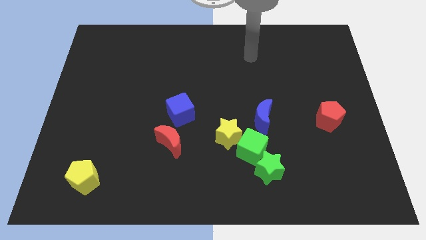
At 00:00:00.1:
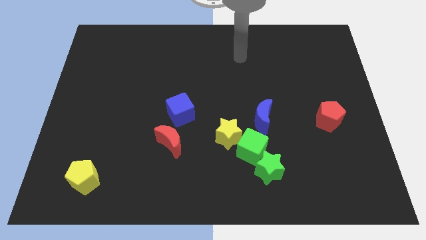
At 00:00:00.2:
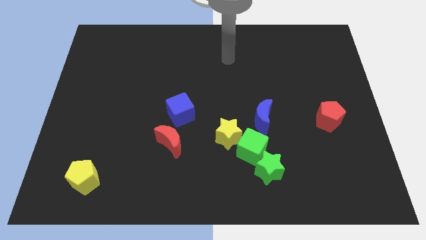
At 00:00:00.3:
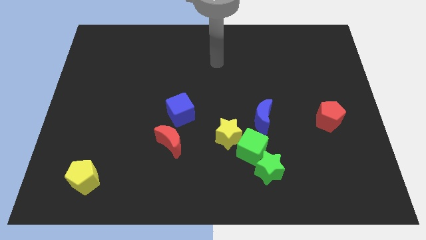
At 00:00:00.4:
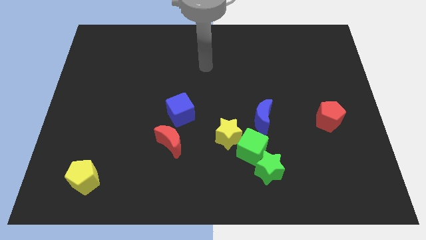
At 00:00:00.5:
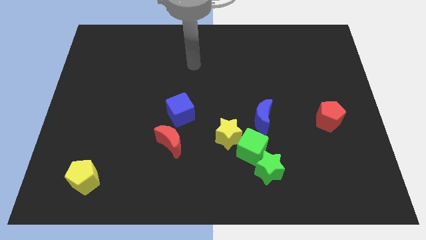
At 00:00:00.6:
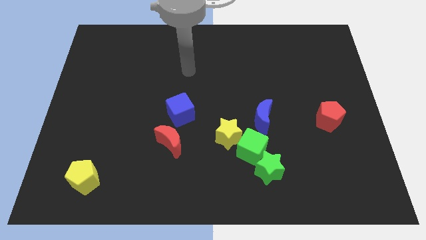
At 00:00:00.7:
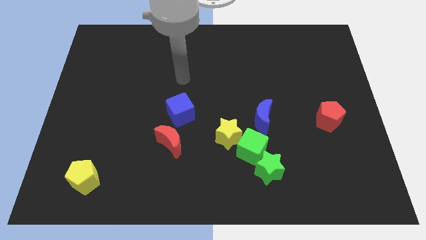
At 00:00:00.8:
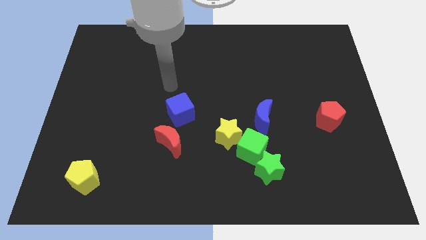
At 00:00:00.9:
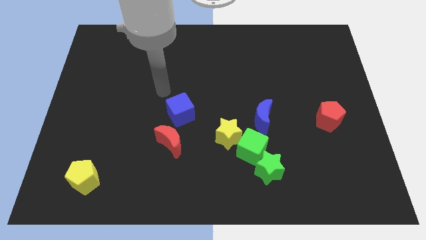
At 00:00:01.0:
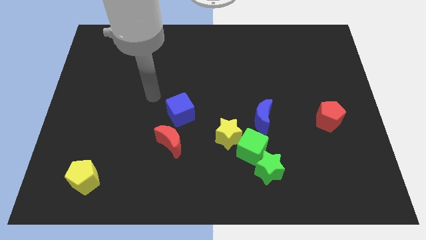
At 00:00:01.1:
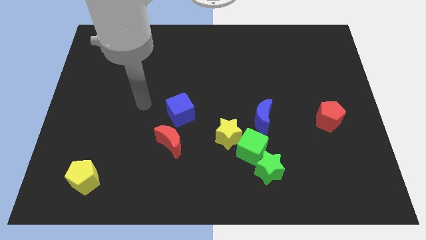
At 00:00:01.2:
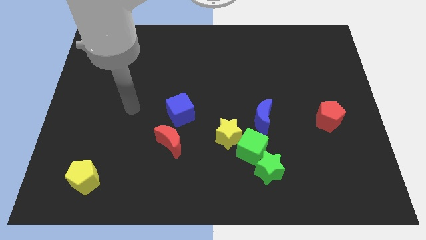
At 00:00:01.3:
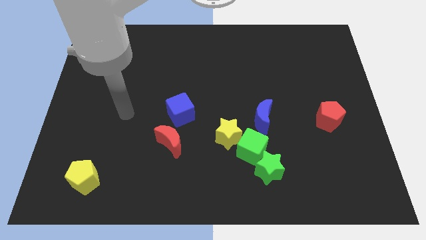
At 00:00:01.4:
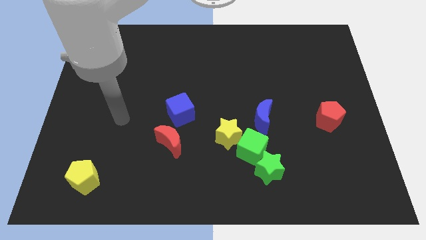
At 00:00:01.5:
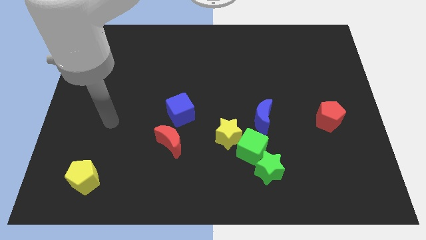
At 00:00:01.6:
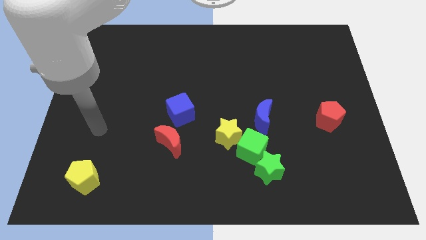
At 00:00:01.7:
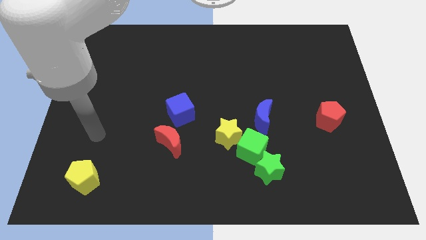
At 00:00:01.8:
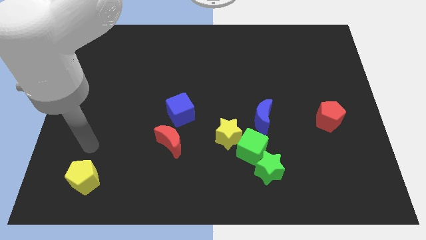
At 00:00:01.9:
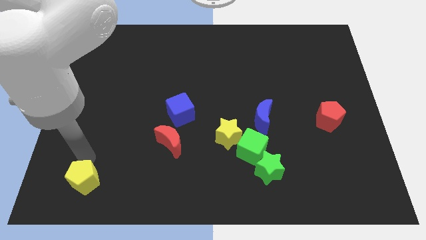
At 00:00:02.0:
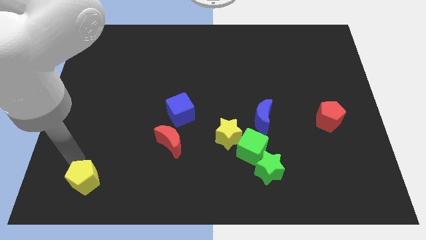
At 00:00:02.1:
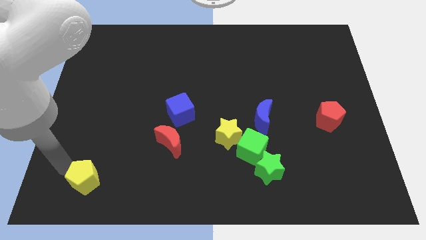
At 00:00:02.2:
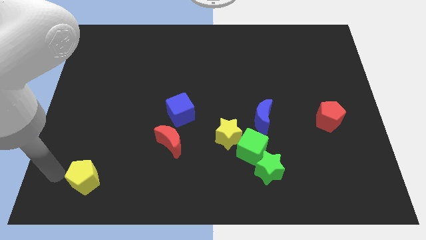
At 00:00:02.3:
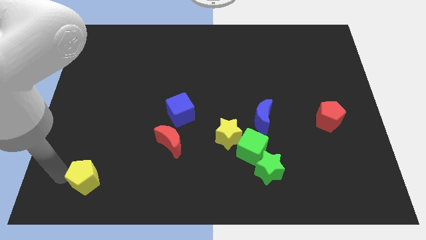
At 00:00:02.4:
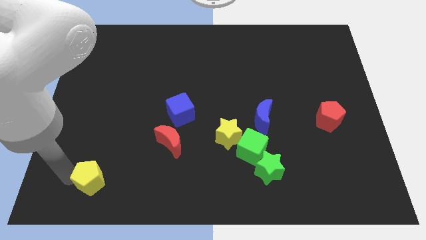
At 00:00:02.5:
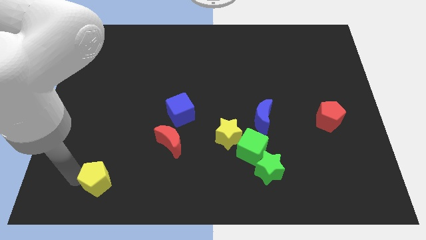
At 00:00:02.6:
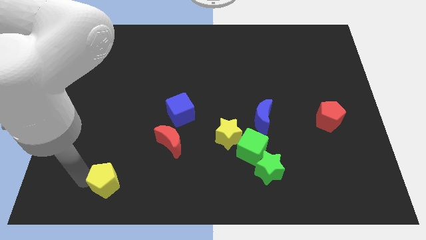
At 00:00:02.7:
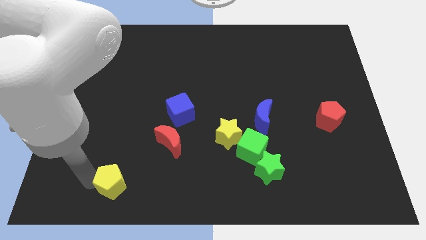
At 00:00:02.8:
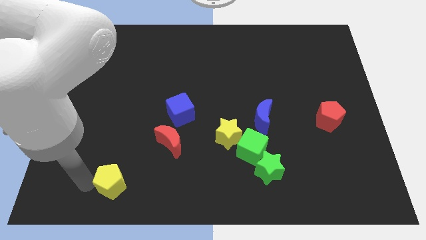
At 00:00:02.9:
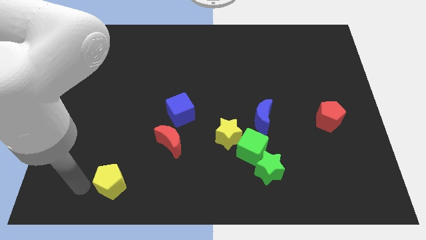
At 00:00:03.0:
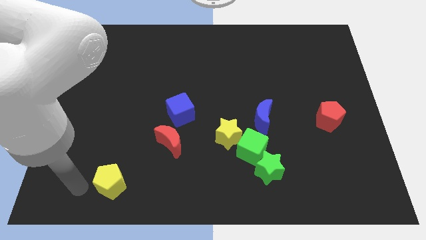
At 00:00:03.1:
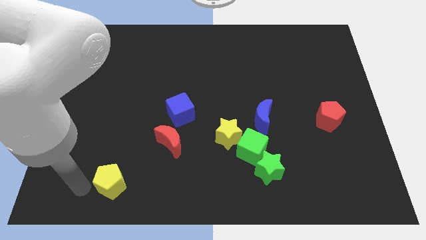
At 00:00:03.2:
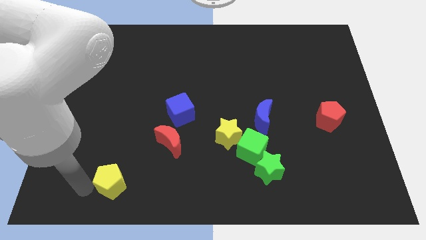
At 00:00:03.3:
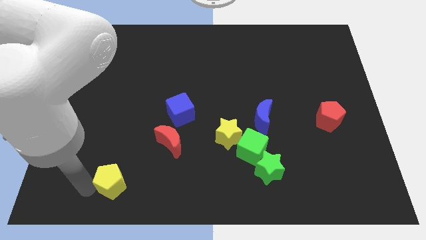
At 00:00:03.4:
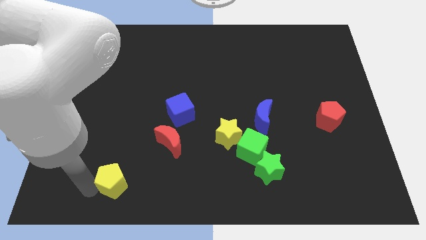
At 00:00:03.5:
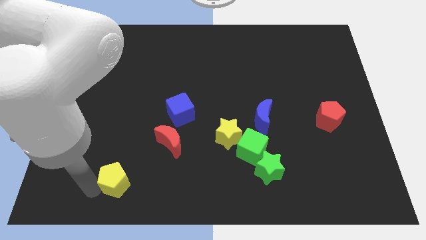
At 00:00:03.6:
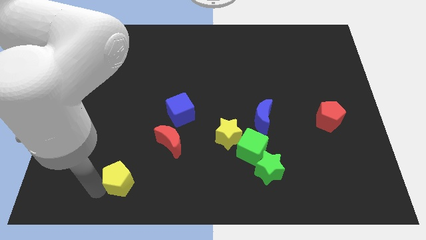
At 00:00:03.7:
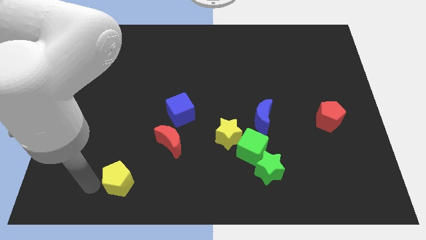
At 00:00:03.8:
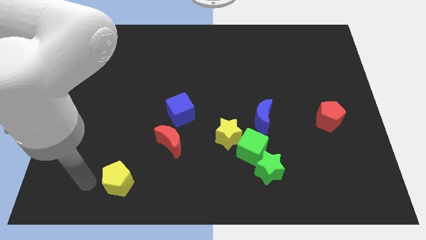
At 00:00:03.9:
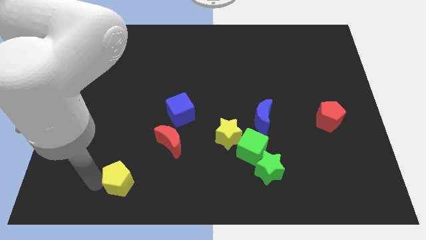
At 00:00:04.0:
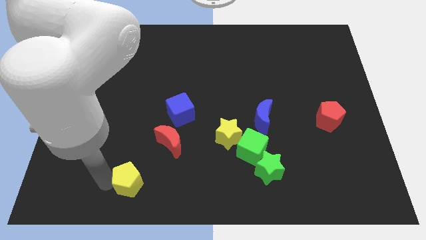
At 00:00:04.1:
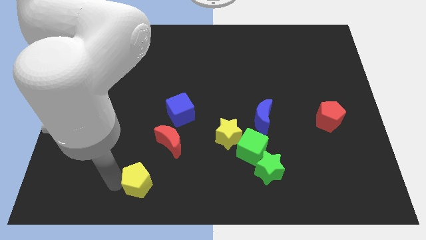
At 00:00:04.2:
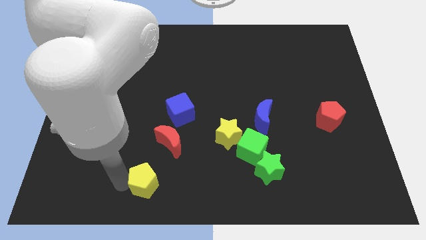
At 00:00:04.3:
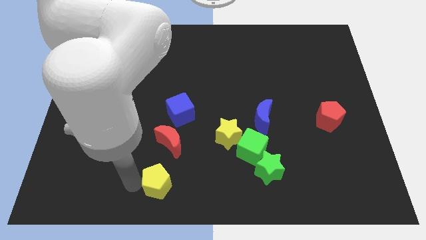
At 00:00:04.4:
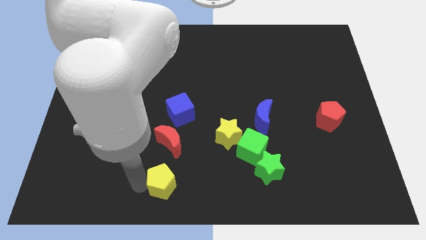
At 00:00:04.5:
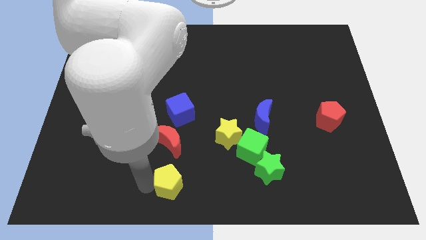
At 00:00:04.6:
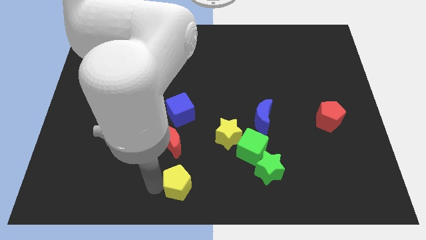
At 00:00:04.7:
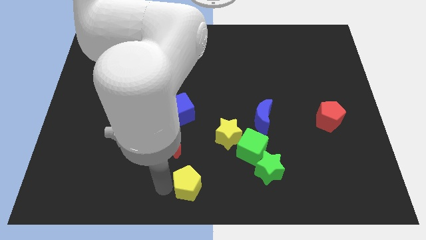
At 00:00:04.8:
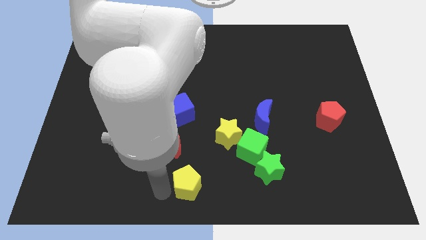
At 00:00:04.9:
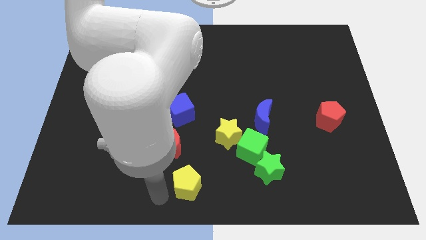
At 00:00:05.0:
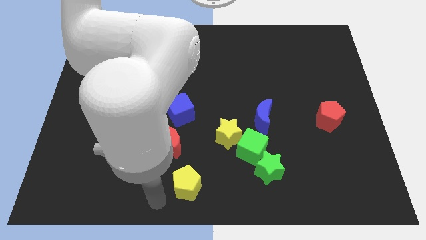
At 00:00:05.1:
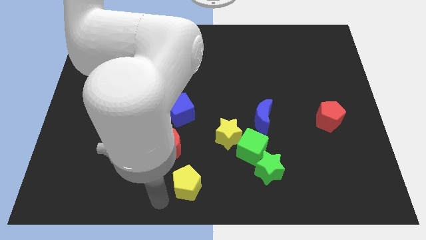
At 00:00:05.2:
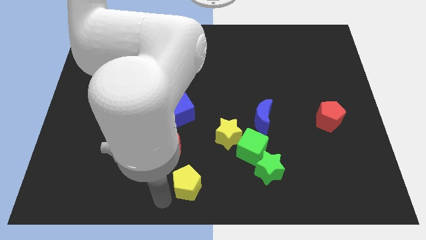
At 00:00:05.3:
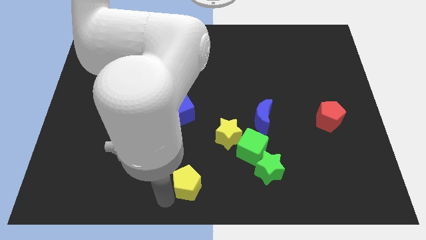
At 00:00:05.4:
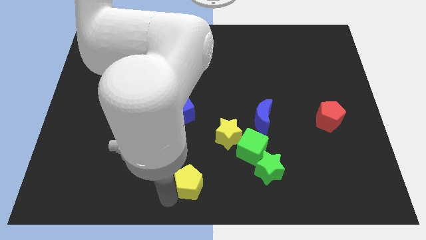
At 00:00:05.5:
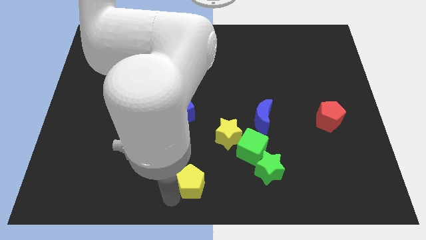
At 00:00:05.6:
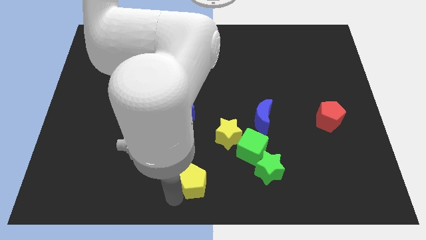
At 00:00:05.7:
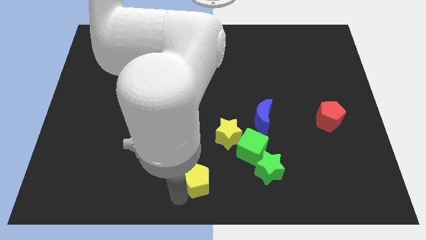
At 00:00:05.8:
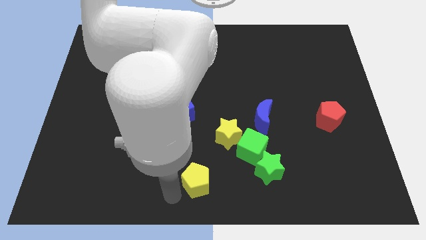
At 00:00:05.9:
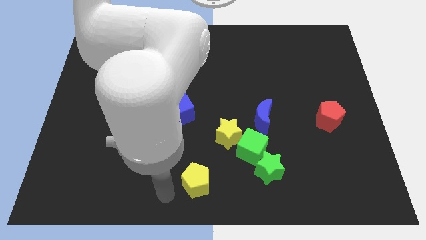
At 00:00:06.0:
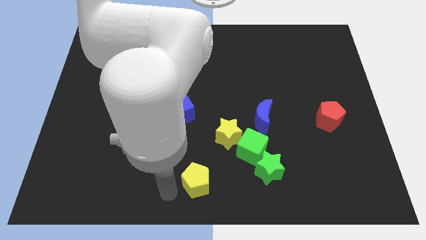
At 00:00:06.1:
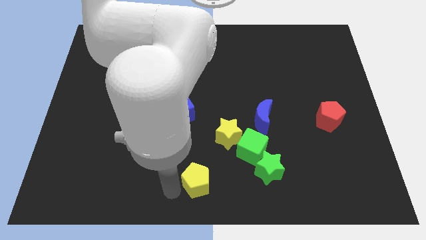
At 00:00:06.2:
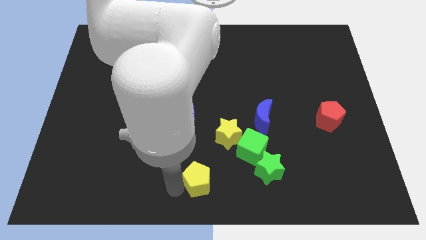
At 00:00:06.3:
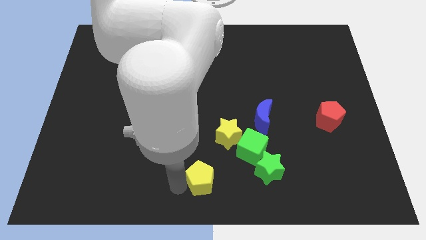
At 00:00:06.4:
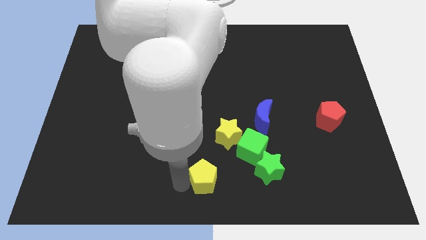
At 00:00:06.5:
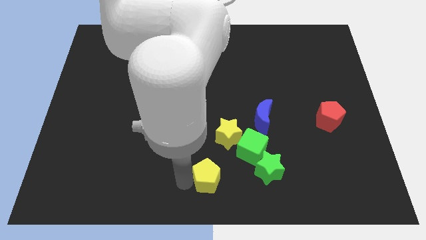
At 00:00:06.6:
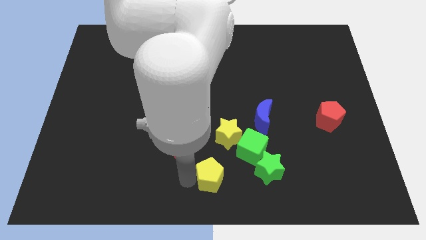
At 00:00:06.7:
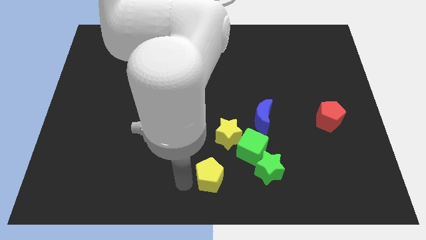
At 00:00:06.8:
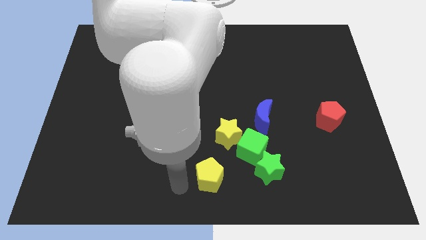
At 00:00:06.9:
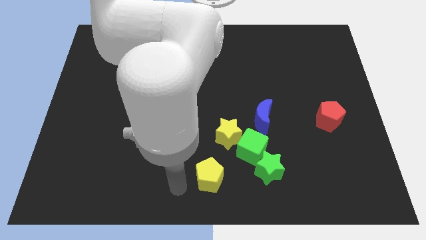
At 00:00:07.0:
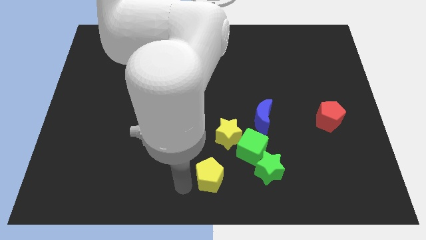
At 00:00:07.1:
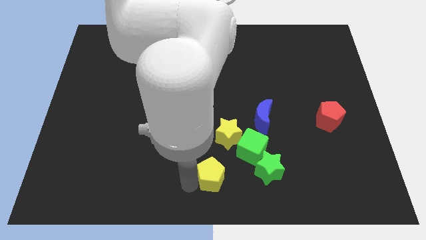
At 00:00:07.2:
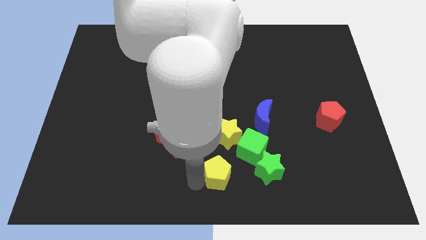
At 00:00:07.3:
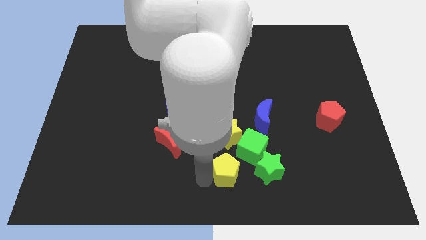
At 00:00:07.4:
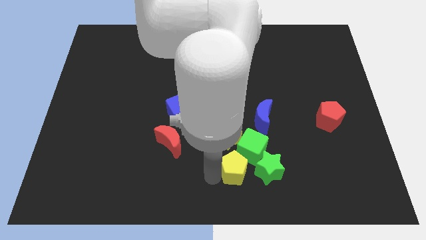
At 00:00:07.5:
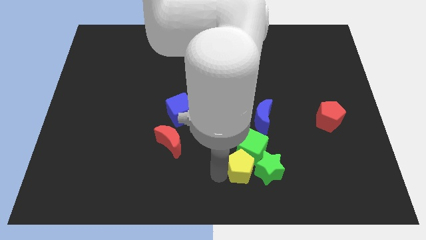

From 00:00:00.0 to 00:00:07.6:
slide the yellow pentagon close to the green star
